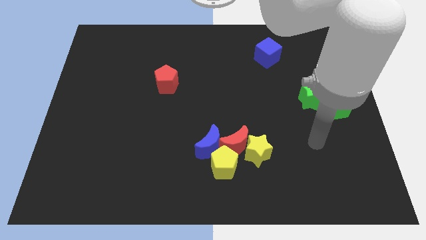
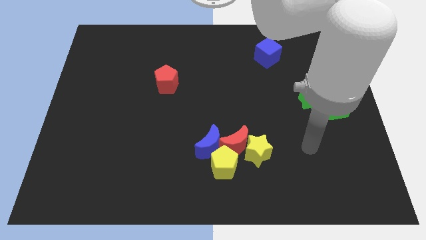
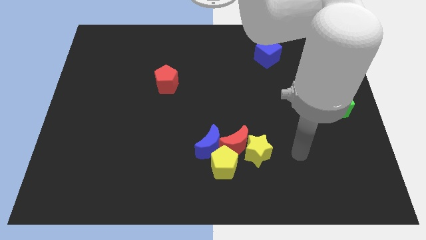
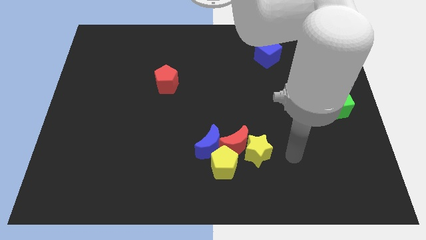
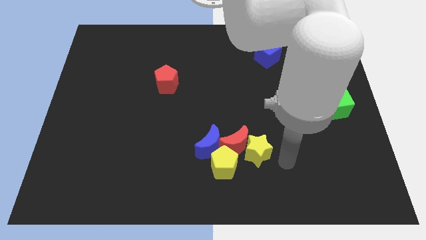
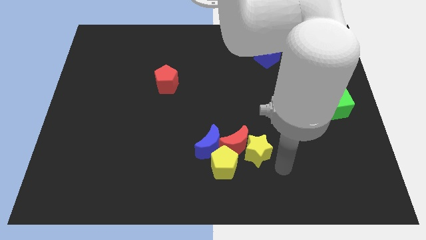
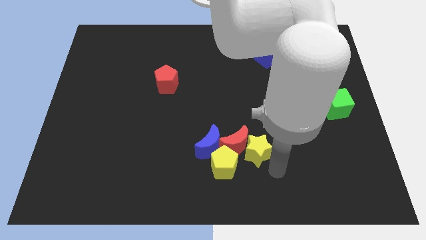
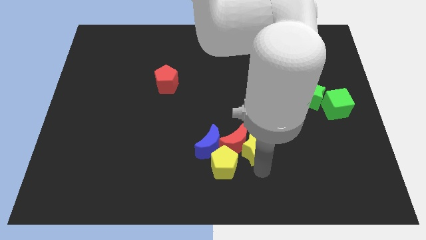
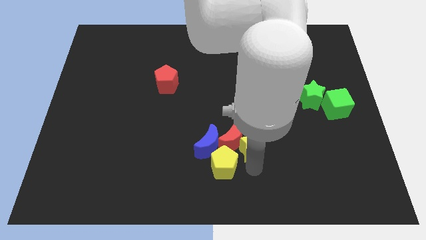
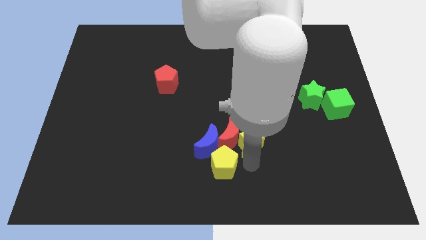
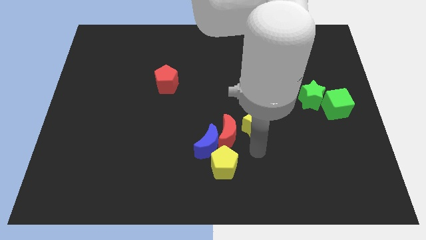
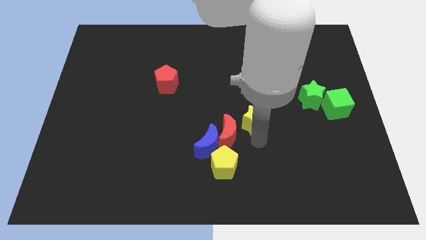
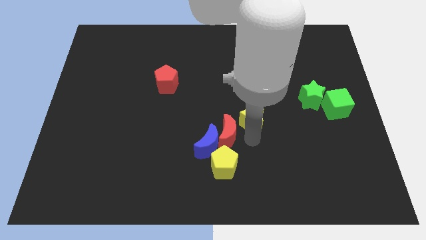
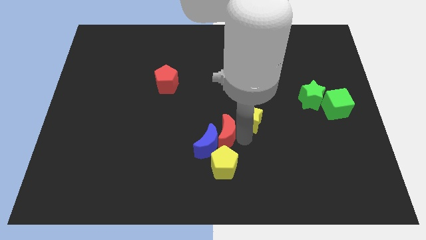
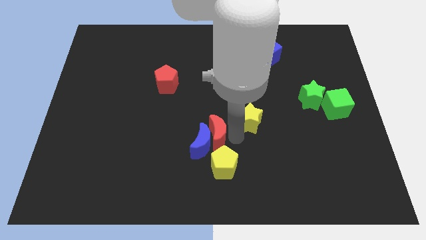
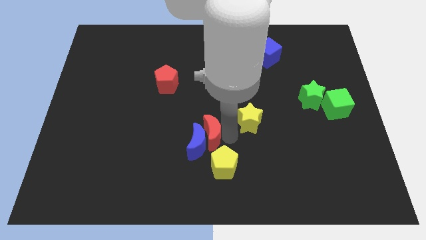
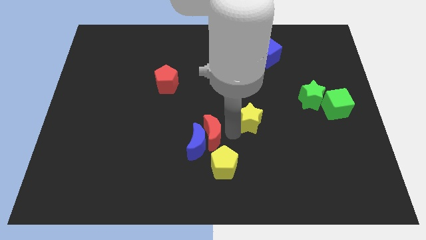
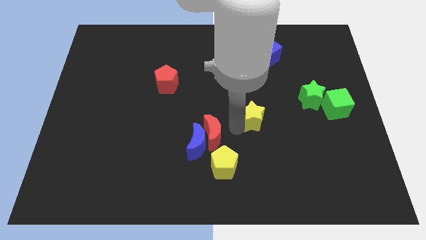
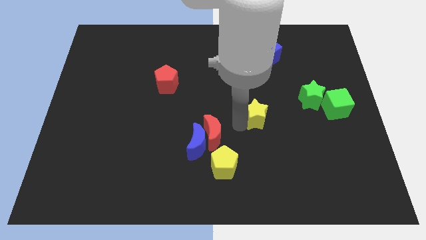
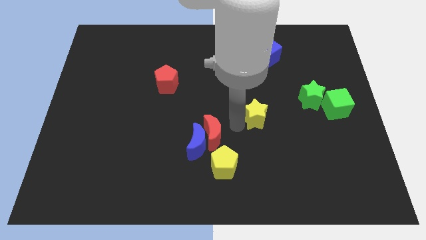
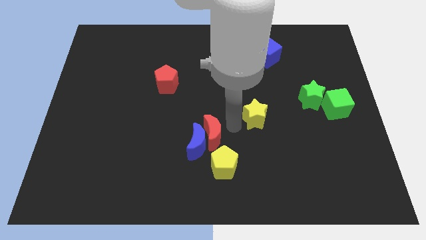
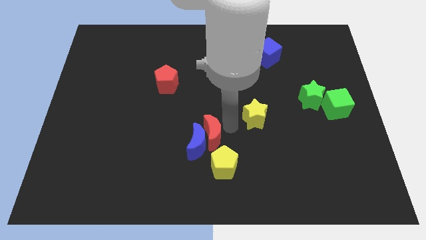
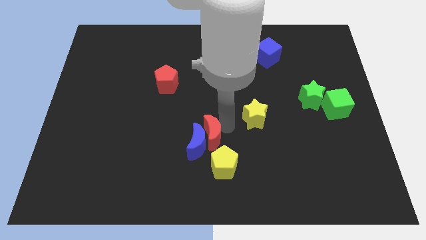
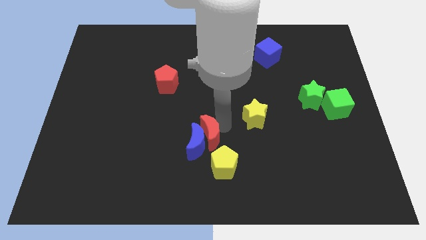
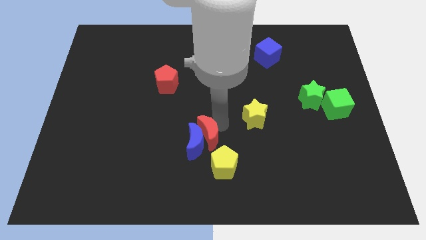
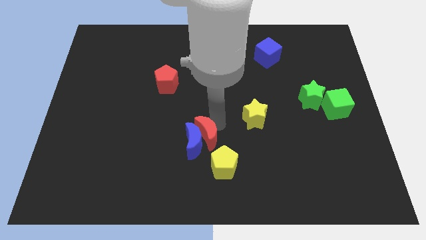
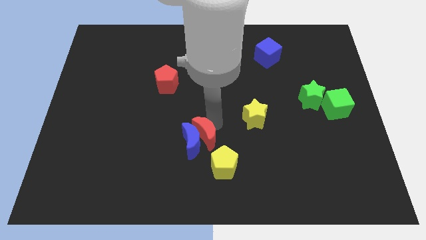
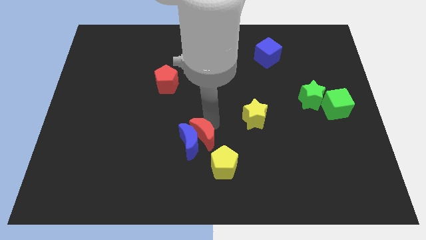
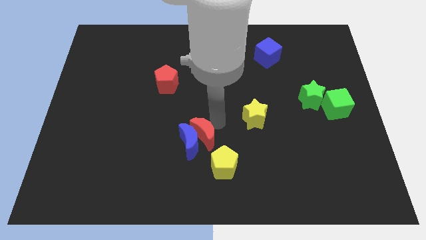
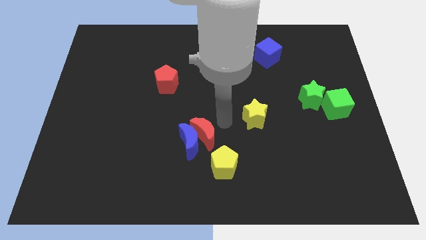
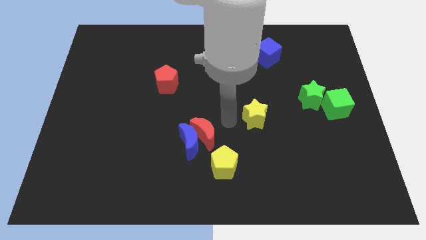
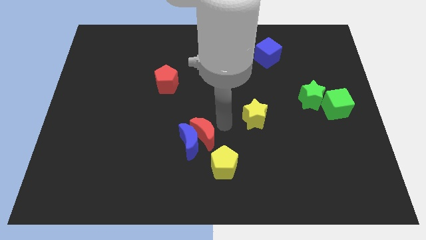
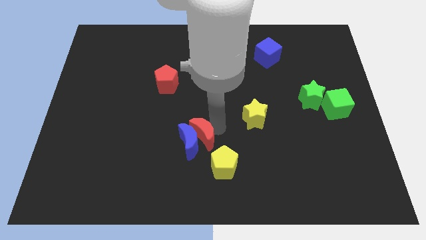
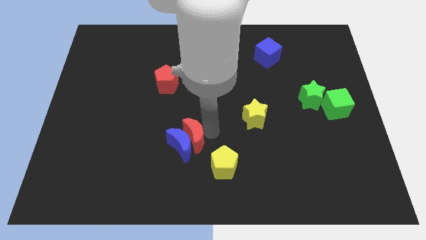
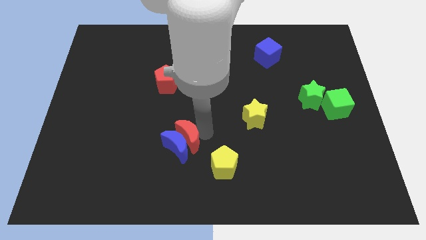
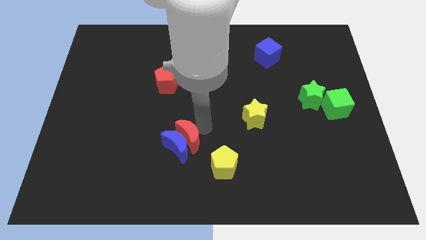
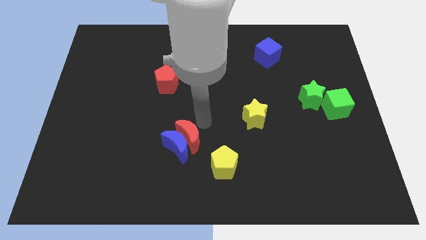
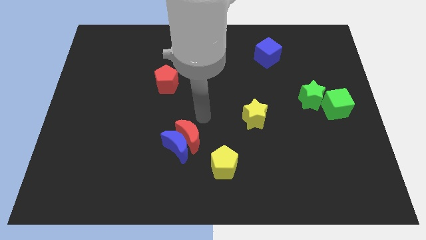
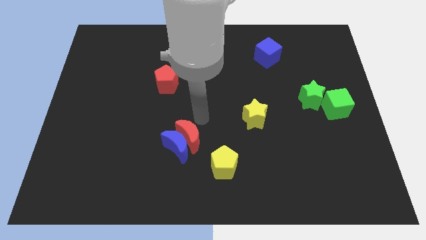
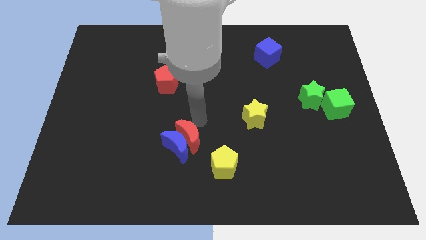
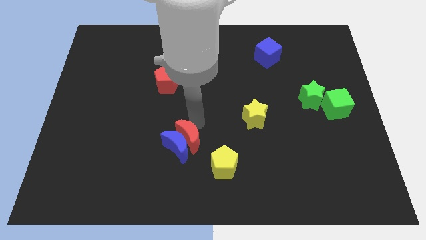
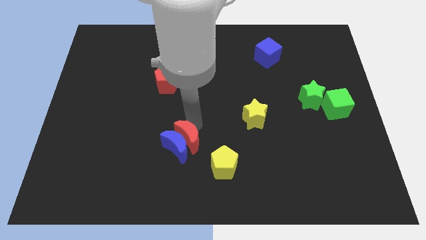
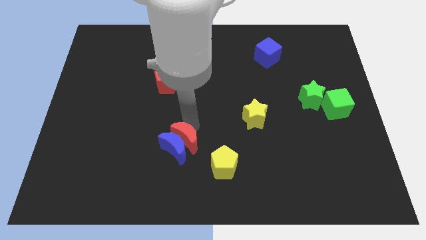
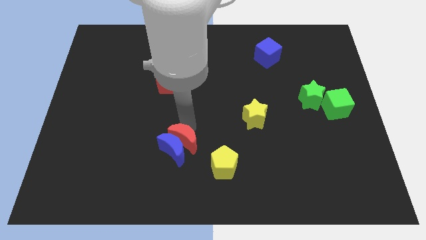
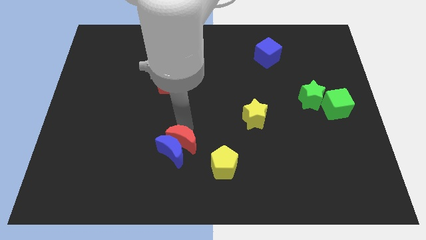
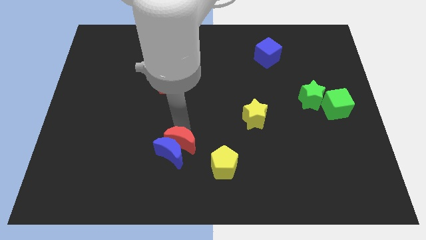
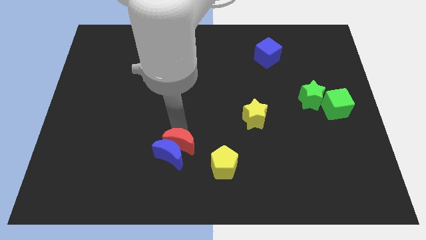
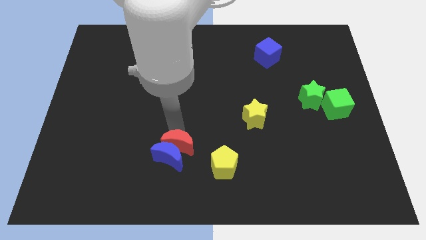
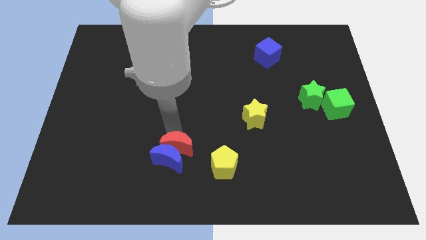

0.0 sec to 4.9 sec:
put the red moon to the left side of the yellow pentagon

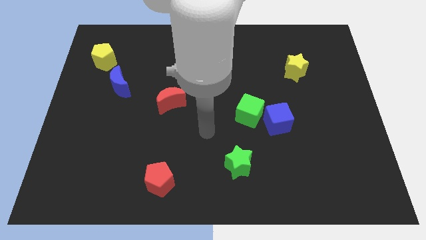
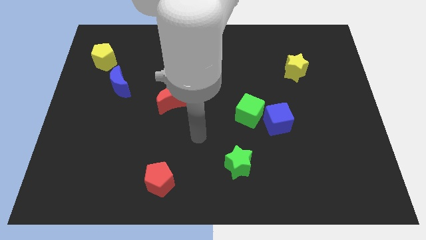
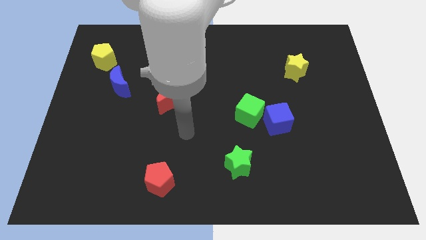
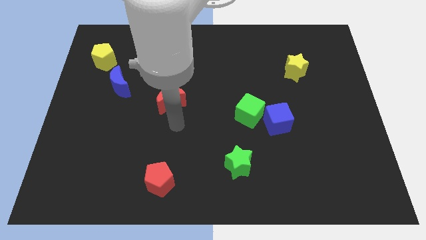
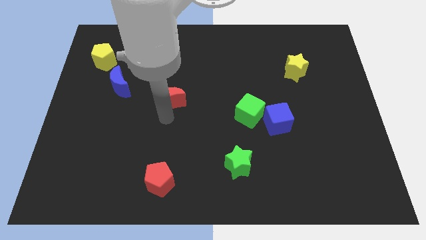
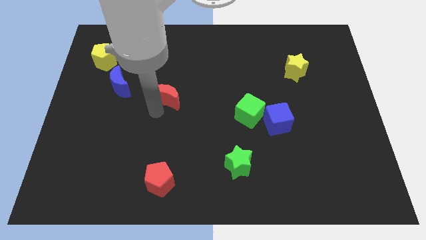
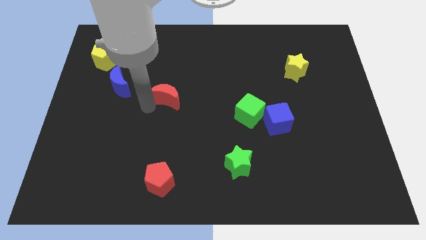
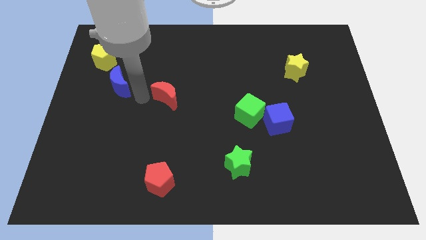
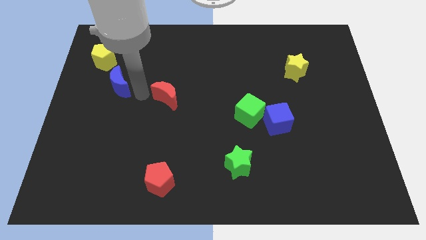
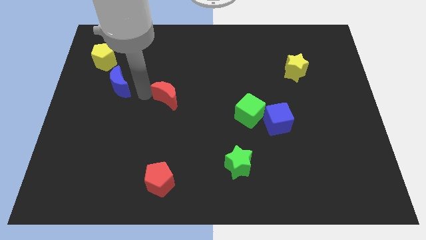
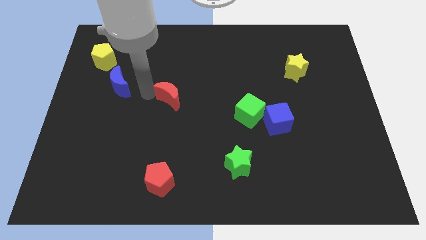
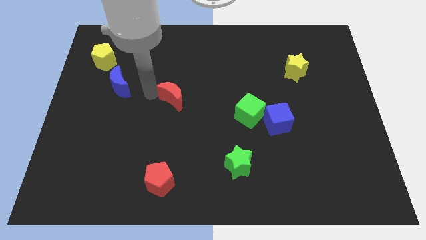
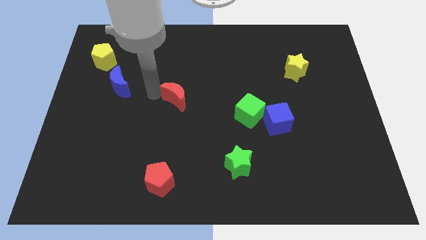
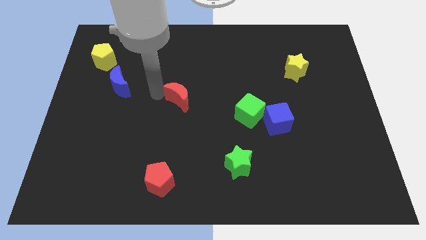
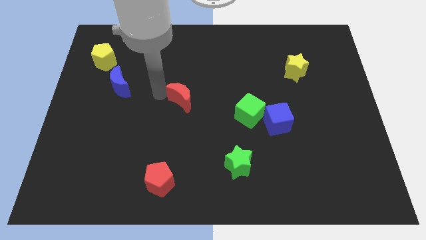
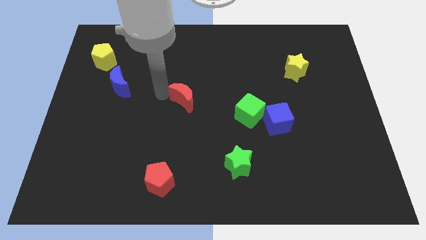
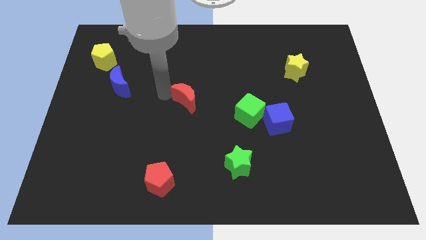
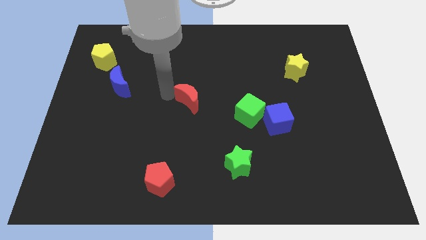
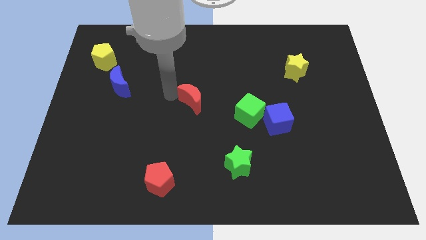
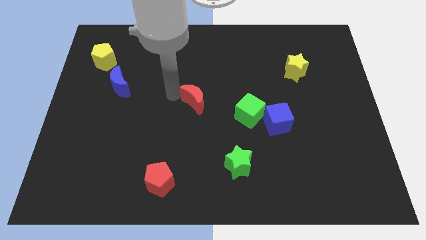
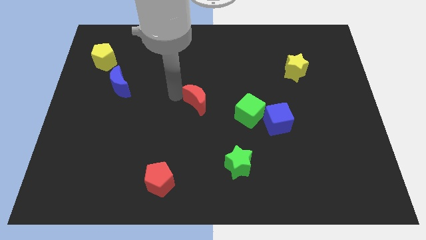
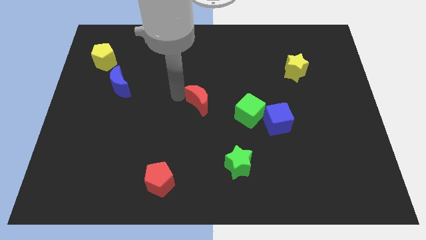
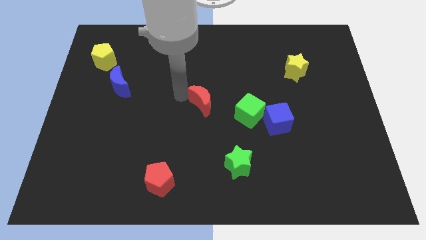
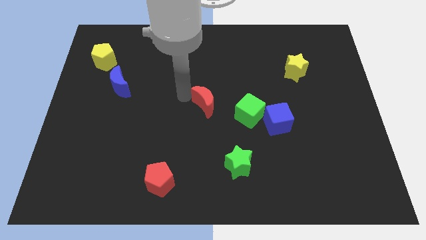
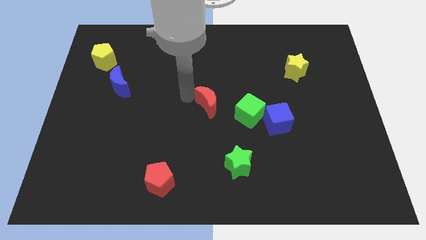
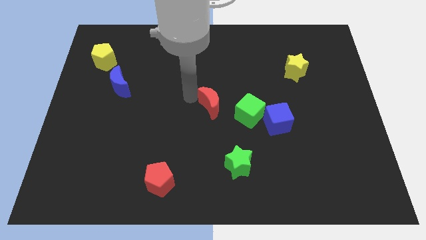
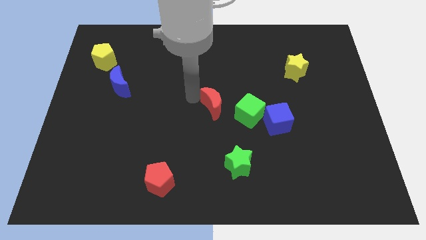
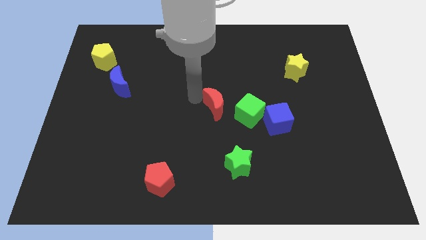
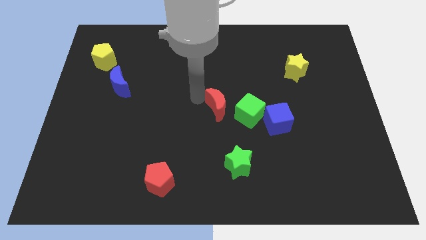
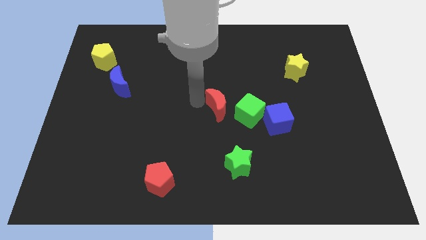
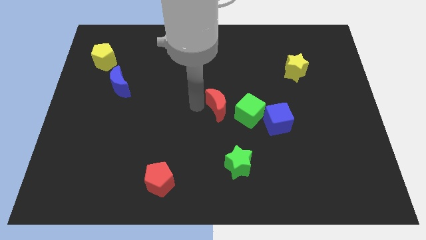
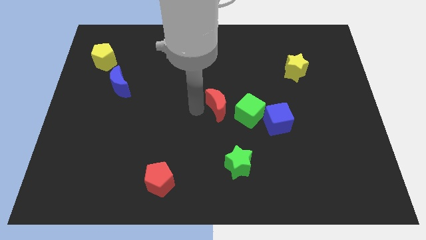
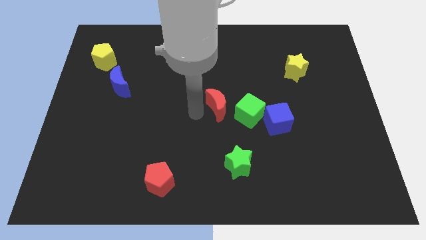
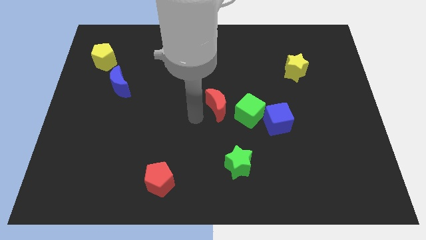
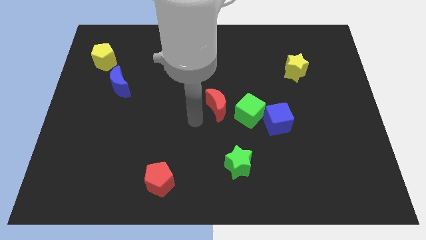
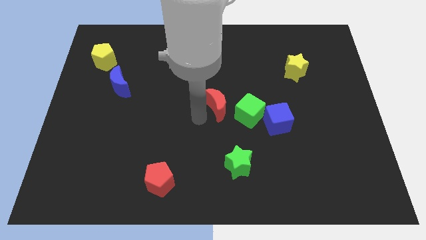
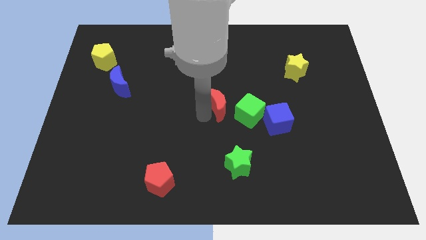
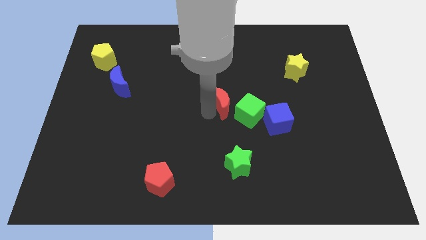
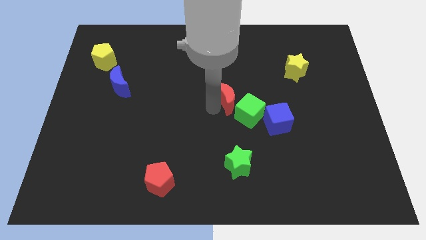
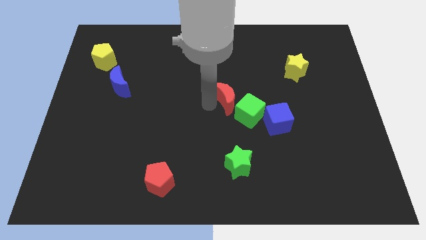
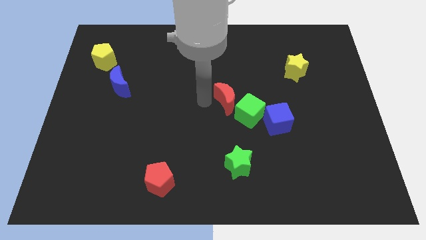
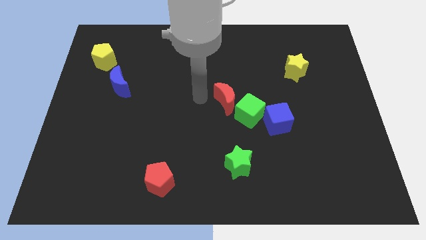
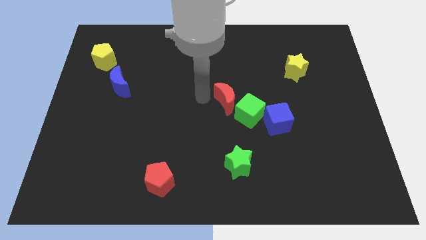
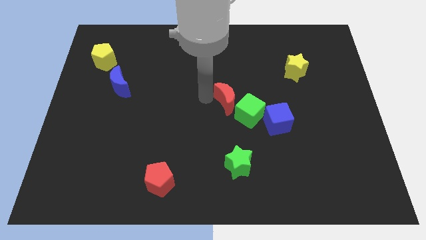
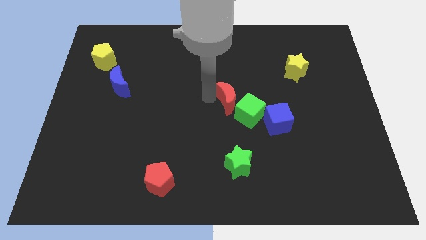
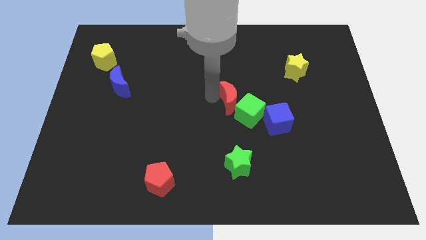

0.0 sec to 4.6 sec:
move the red moon diagonally up and to the left of the blue cube
